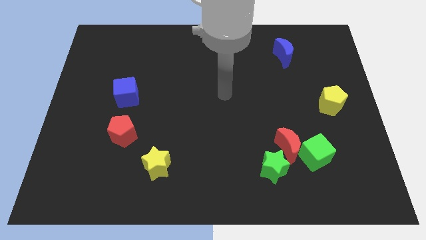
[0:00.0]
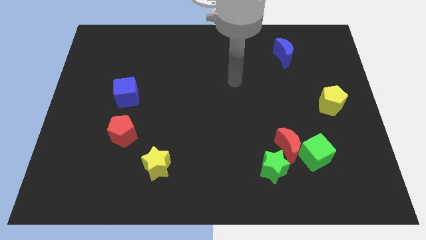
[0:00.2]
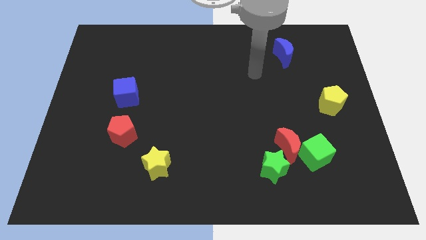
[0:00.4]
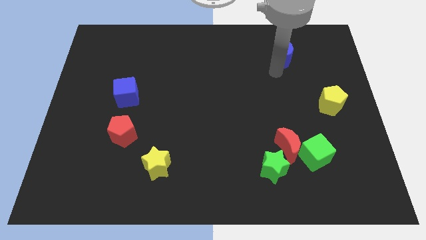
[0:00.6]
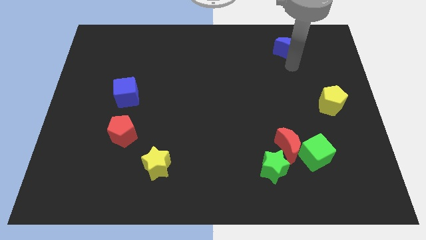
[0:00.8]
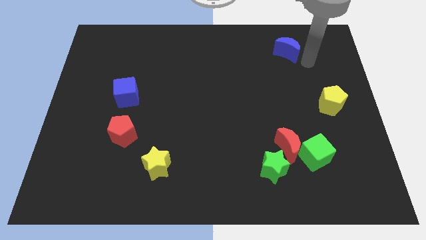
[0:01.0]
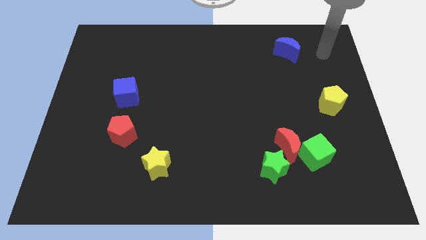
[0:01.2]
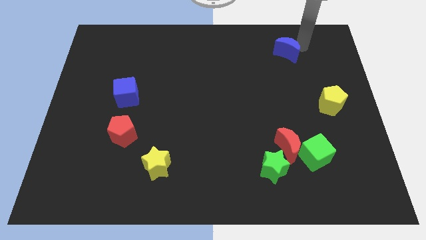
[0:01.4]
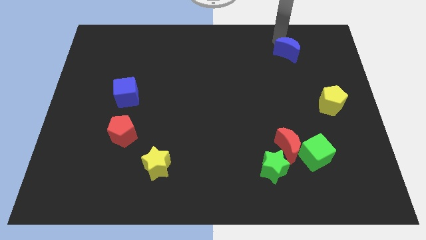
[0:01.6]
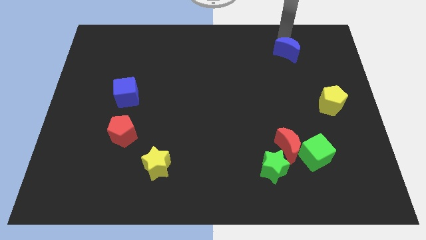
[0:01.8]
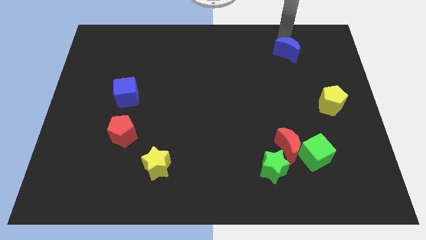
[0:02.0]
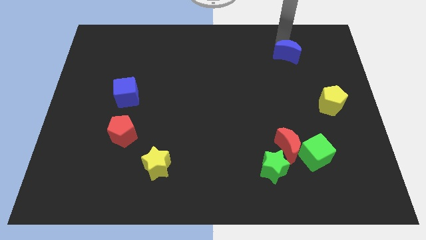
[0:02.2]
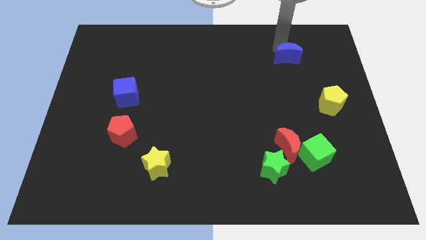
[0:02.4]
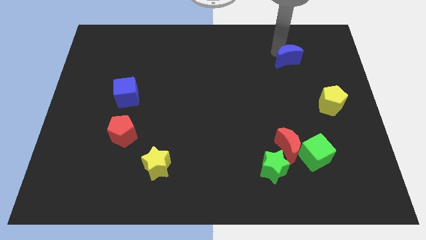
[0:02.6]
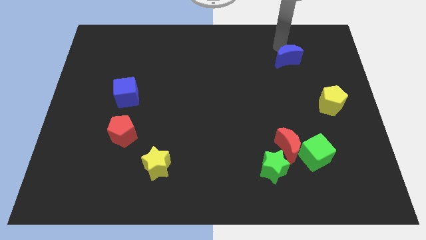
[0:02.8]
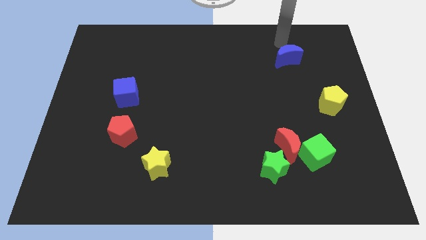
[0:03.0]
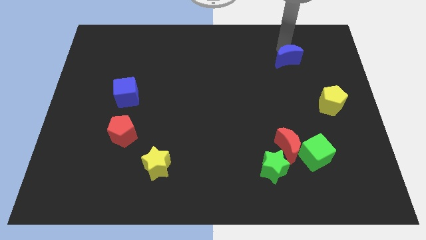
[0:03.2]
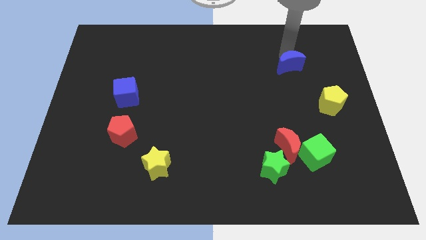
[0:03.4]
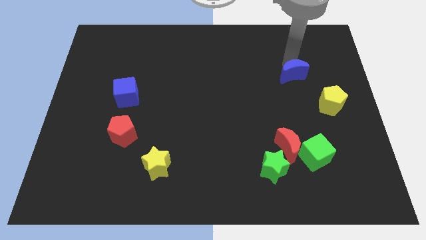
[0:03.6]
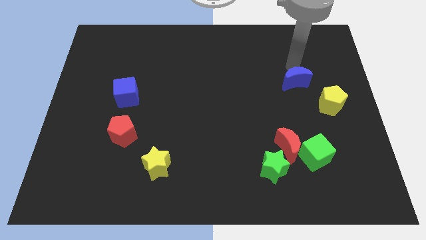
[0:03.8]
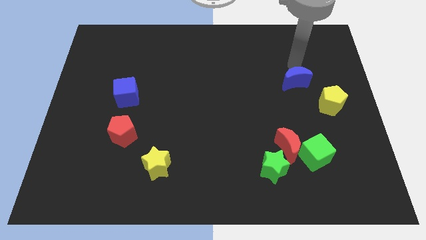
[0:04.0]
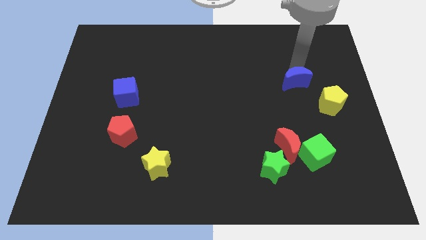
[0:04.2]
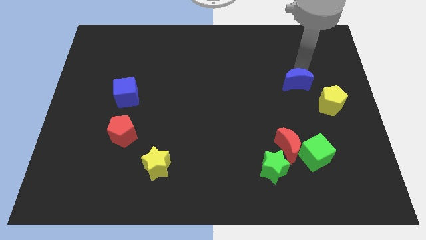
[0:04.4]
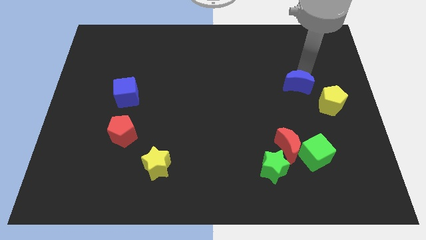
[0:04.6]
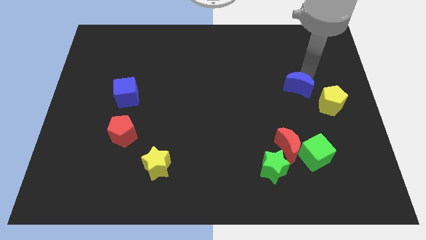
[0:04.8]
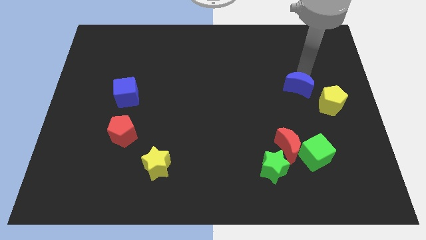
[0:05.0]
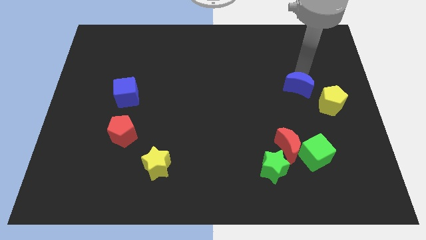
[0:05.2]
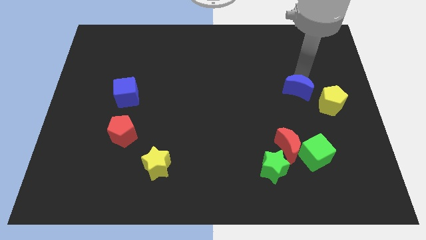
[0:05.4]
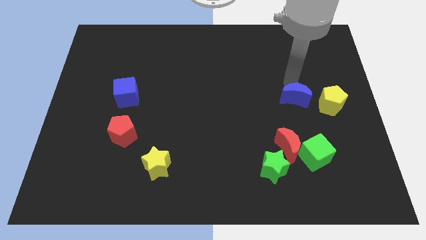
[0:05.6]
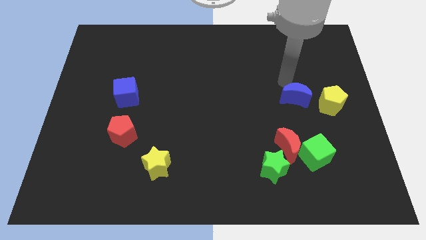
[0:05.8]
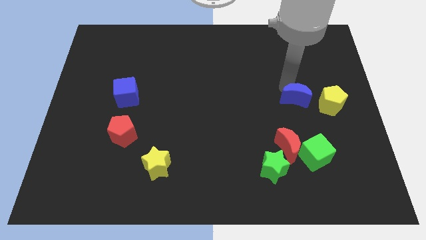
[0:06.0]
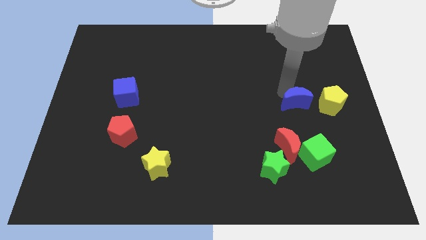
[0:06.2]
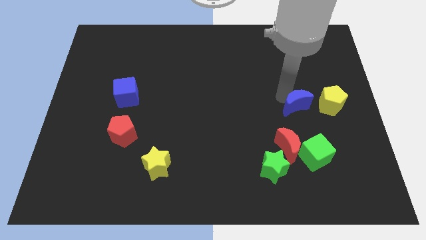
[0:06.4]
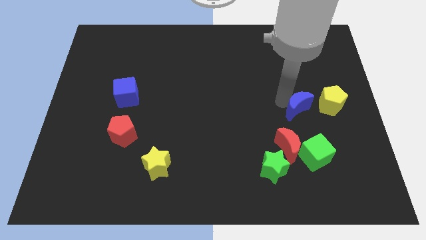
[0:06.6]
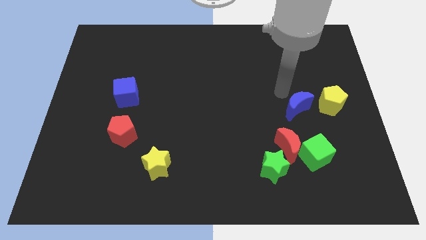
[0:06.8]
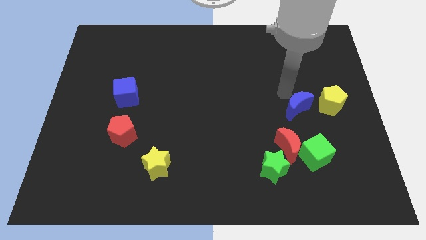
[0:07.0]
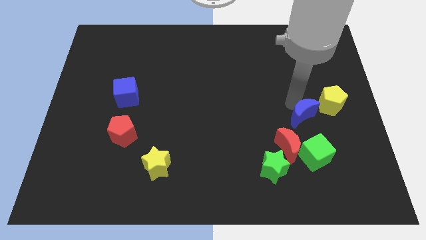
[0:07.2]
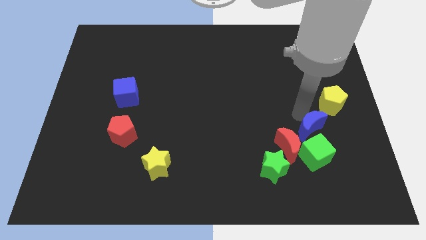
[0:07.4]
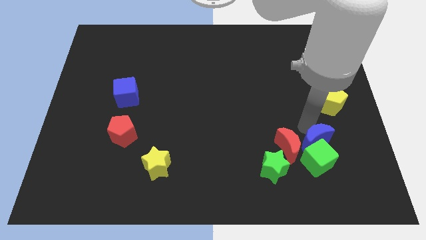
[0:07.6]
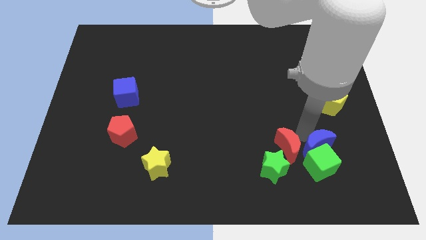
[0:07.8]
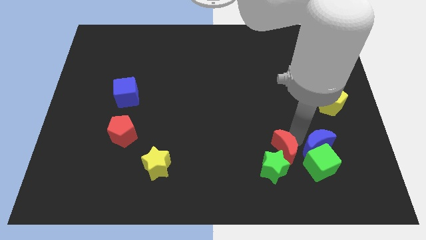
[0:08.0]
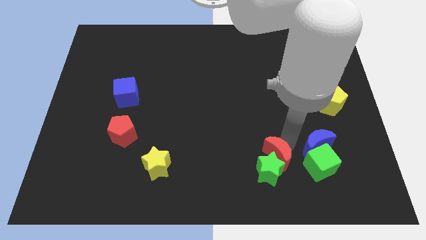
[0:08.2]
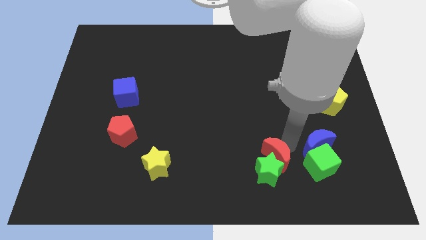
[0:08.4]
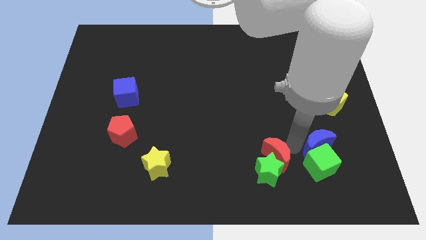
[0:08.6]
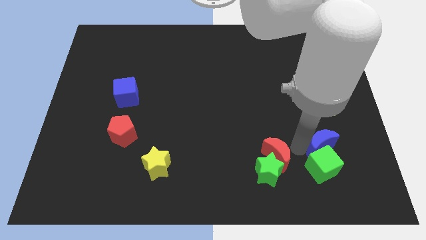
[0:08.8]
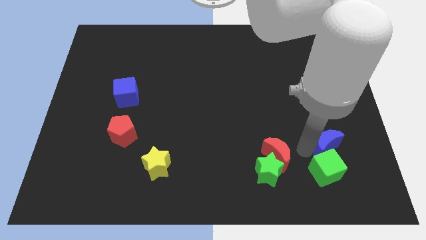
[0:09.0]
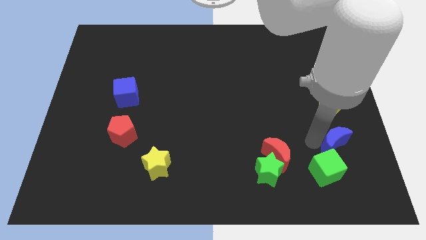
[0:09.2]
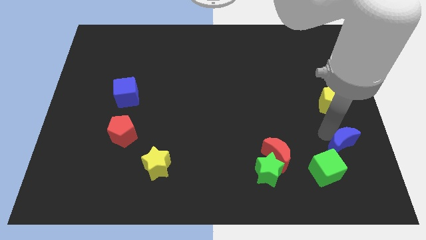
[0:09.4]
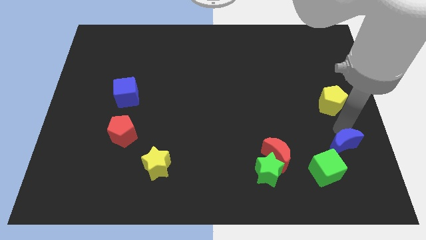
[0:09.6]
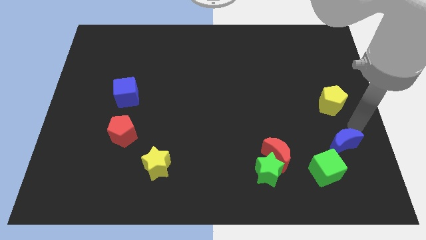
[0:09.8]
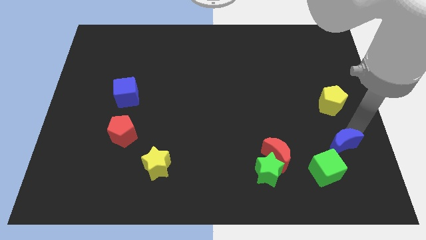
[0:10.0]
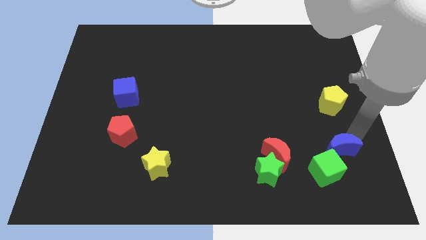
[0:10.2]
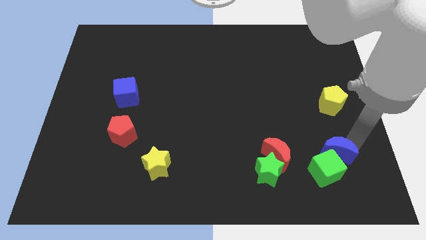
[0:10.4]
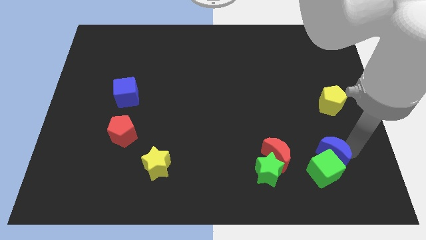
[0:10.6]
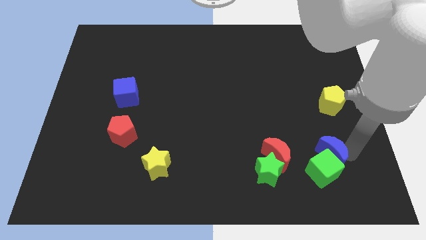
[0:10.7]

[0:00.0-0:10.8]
put the blue moon just right of the green star

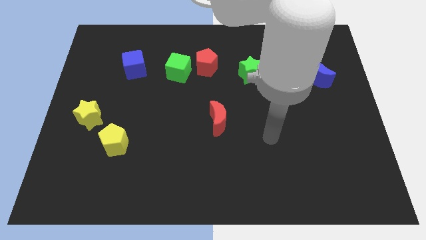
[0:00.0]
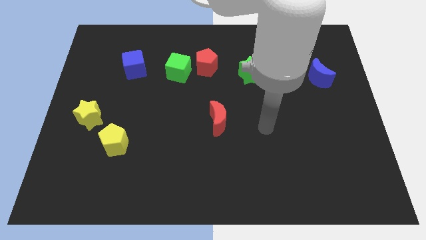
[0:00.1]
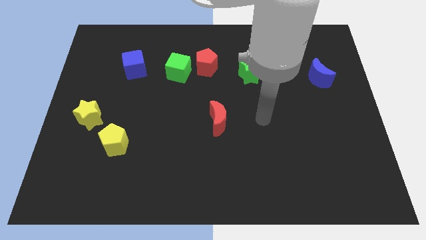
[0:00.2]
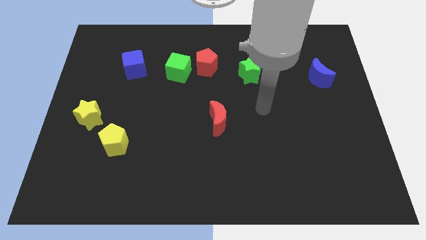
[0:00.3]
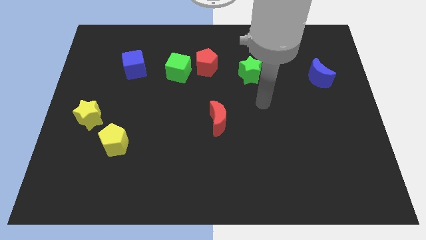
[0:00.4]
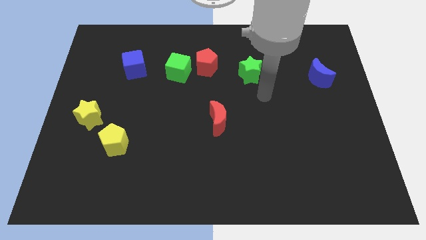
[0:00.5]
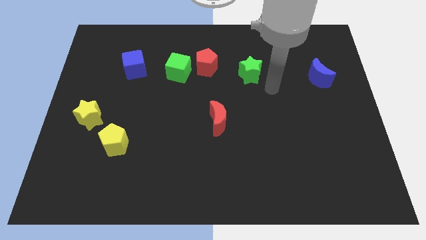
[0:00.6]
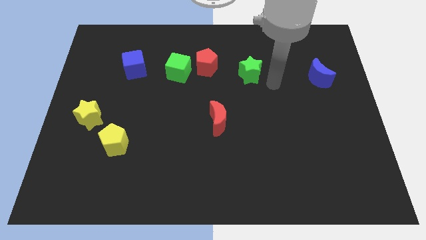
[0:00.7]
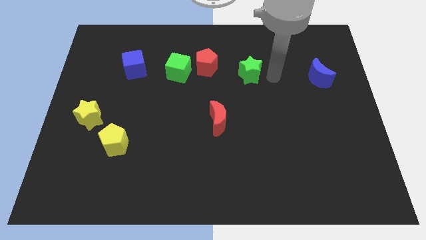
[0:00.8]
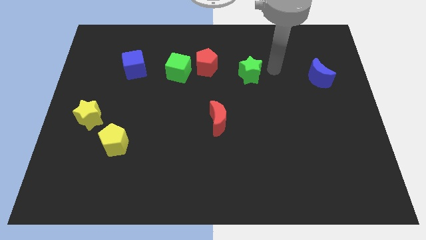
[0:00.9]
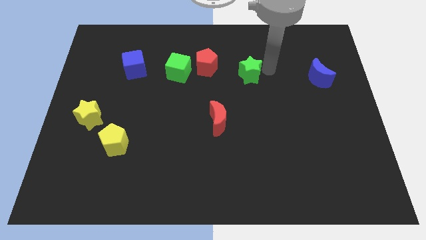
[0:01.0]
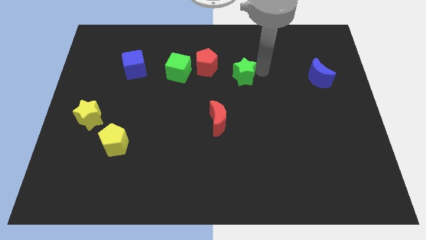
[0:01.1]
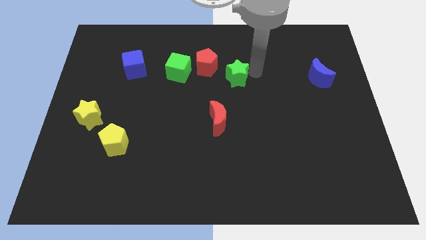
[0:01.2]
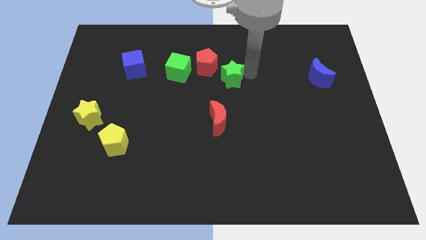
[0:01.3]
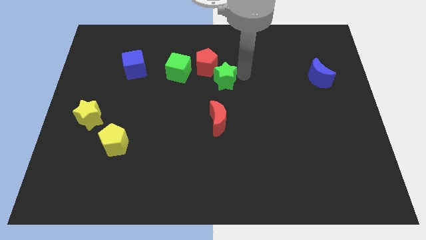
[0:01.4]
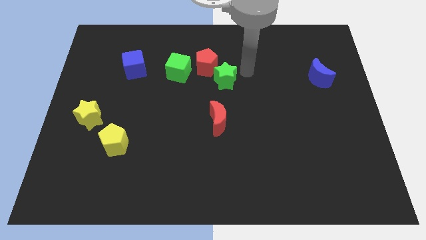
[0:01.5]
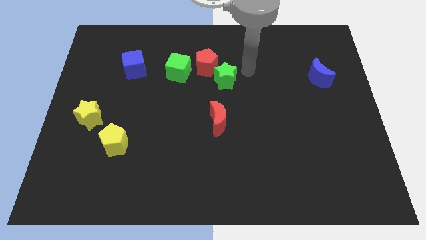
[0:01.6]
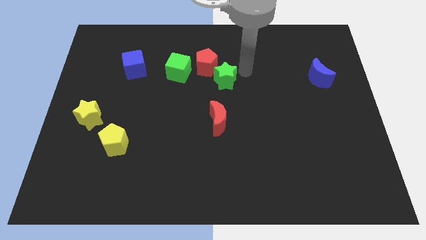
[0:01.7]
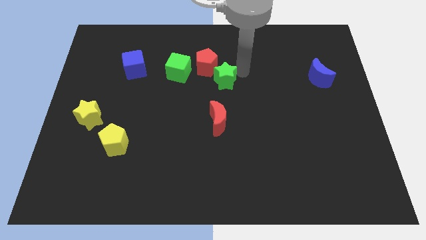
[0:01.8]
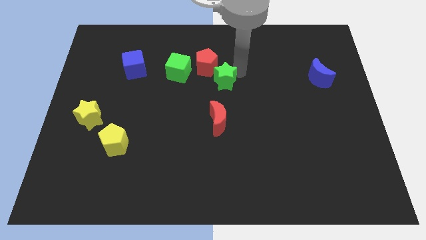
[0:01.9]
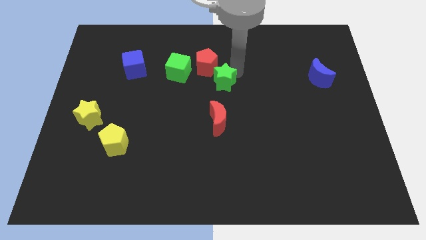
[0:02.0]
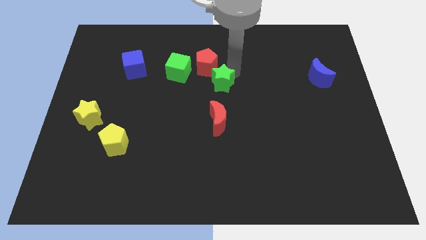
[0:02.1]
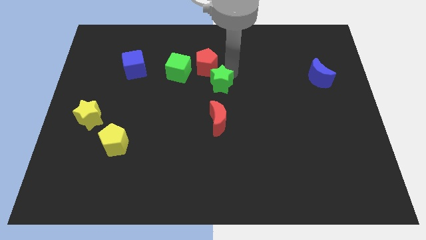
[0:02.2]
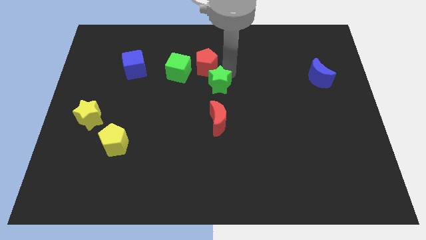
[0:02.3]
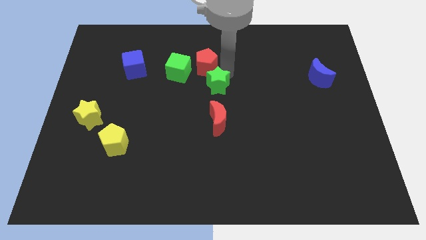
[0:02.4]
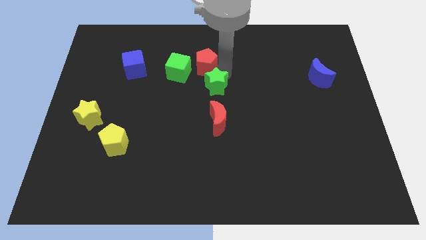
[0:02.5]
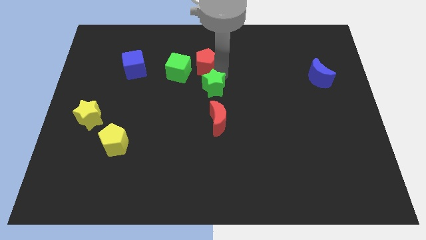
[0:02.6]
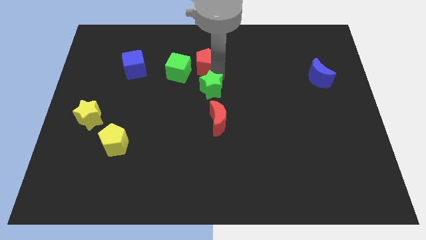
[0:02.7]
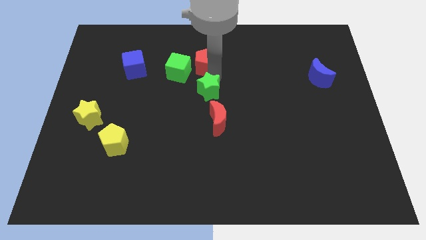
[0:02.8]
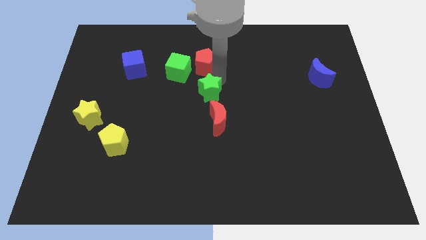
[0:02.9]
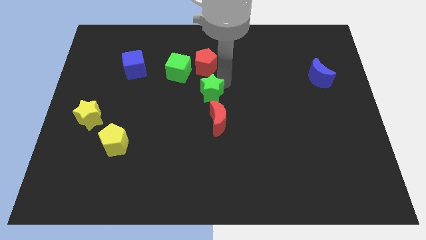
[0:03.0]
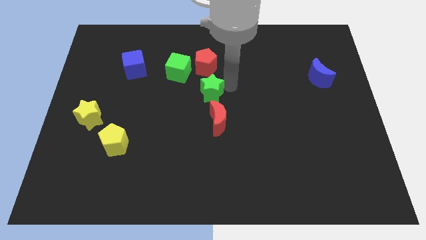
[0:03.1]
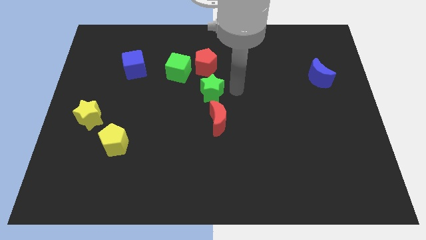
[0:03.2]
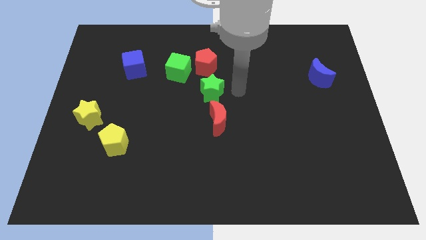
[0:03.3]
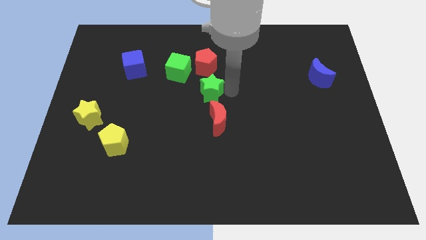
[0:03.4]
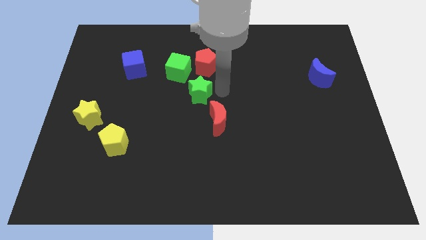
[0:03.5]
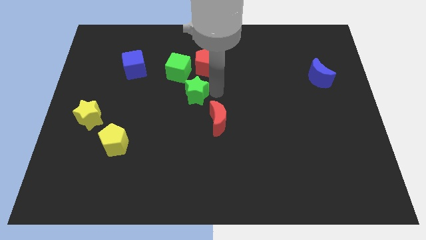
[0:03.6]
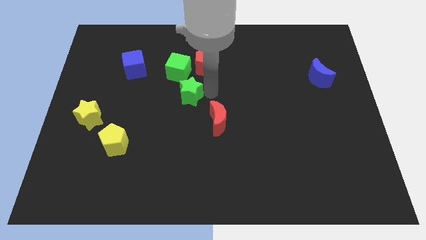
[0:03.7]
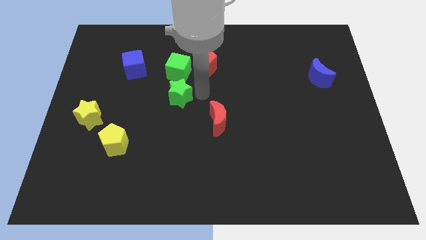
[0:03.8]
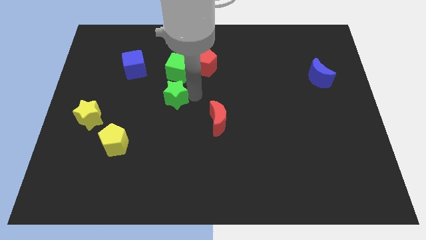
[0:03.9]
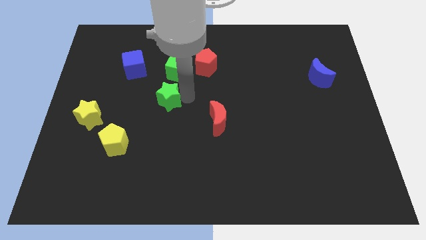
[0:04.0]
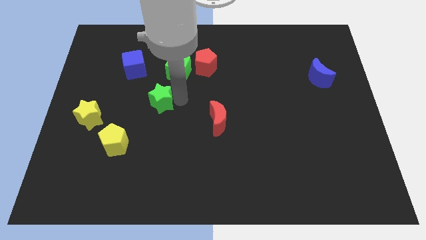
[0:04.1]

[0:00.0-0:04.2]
slide the green star diagonally down and to the left of the green cube
